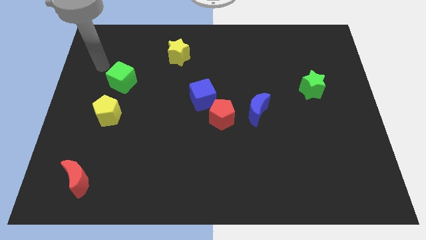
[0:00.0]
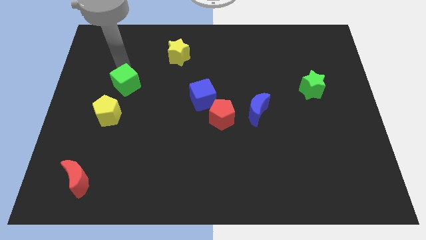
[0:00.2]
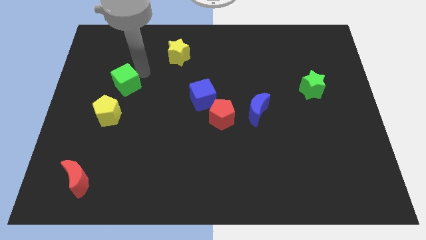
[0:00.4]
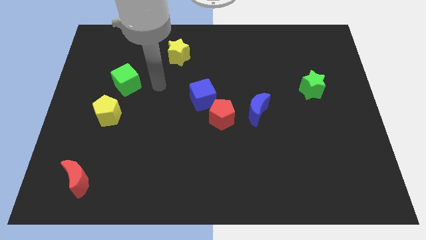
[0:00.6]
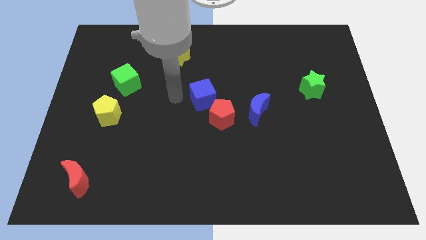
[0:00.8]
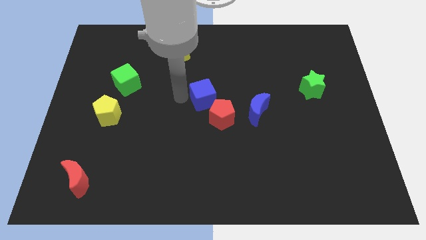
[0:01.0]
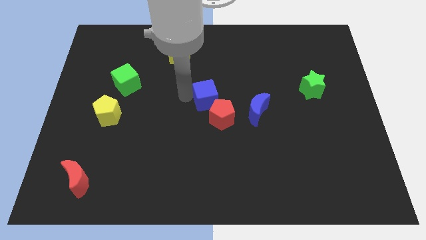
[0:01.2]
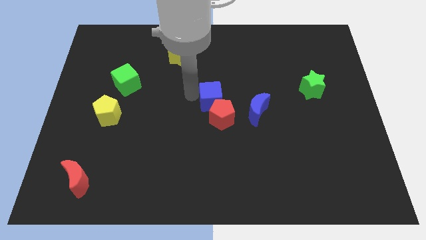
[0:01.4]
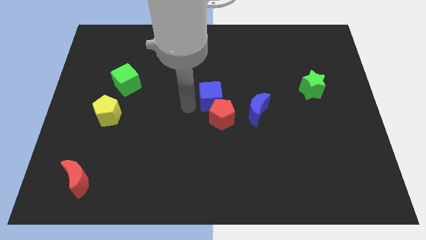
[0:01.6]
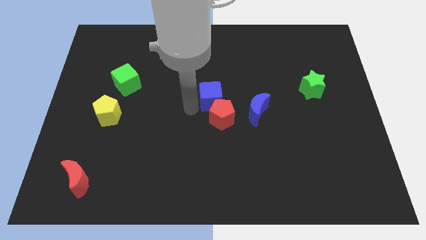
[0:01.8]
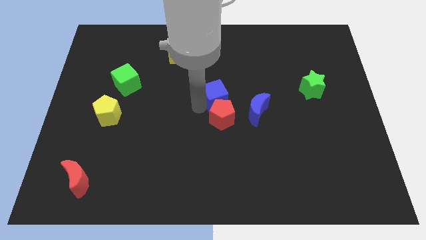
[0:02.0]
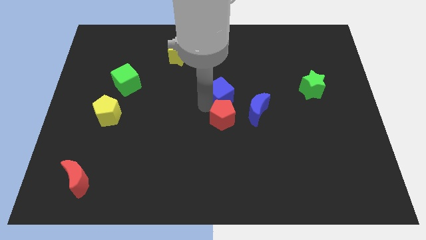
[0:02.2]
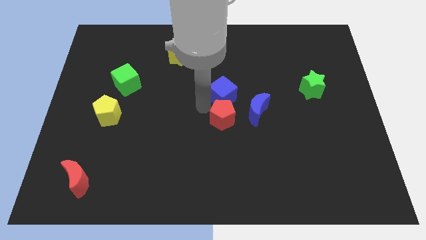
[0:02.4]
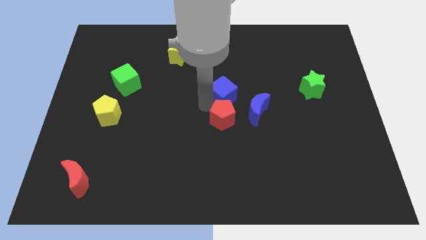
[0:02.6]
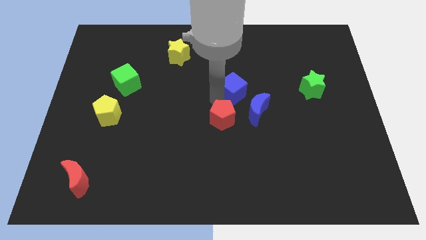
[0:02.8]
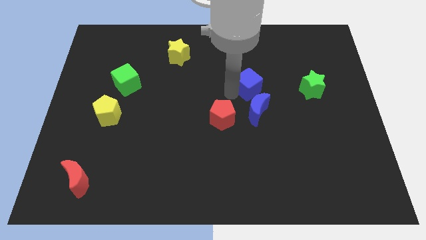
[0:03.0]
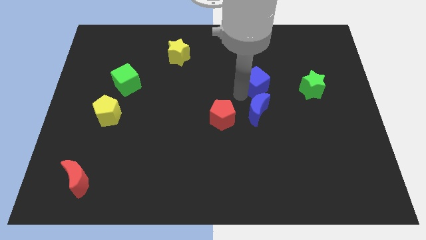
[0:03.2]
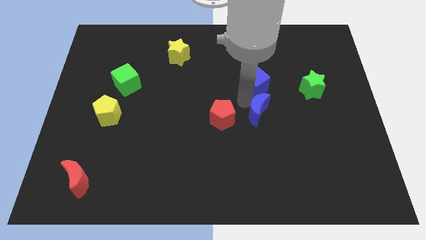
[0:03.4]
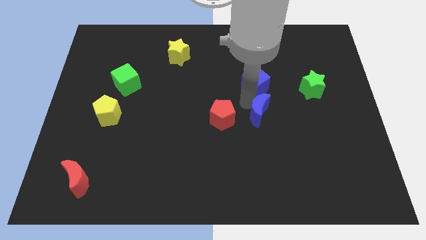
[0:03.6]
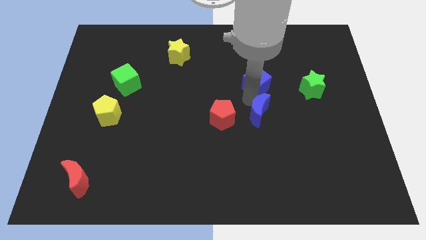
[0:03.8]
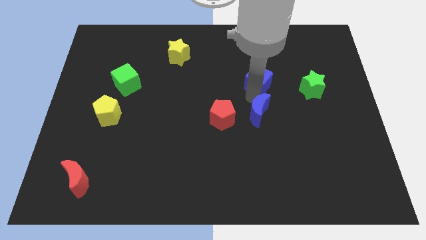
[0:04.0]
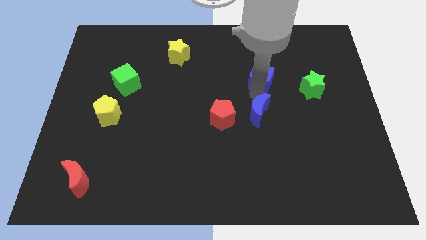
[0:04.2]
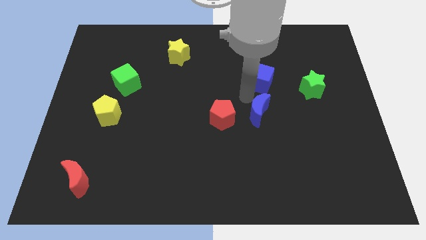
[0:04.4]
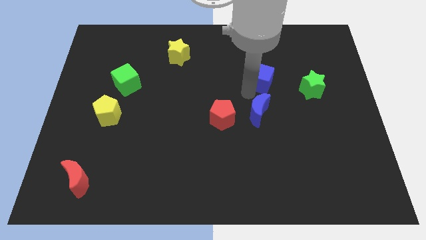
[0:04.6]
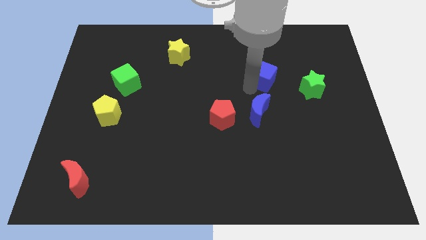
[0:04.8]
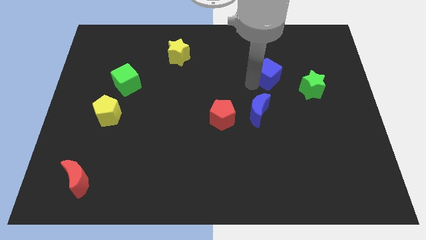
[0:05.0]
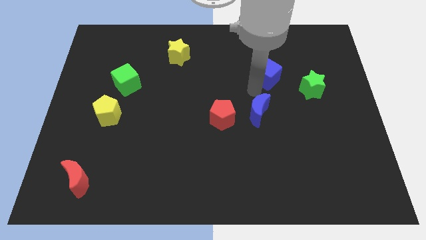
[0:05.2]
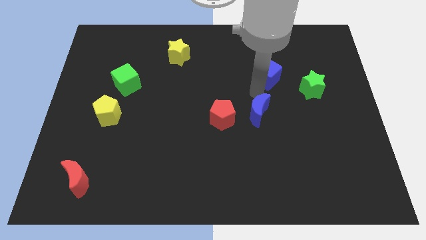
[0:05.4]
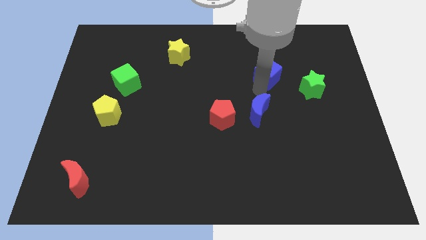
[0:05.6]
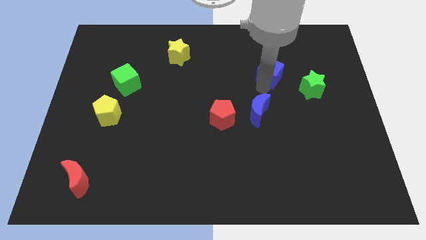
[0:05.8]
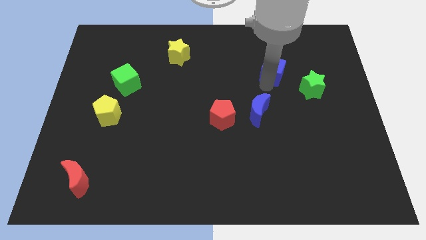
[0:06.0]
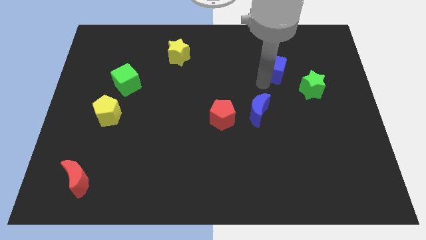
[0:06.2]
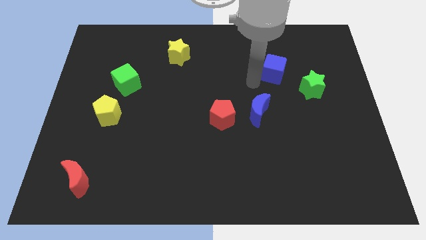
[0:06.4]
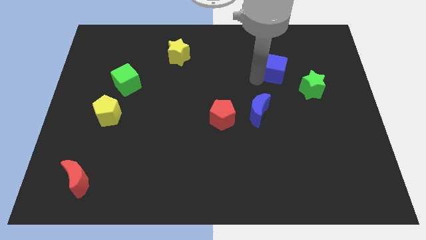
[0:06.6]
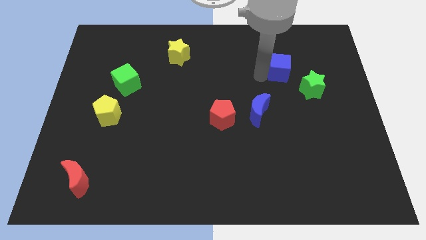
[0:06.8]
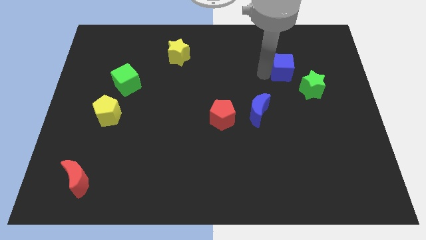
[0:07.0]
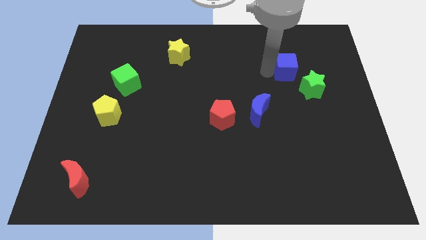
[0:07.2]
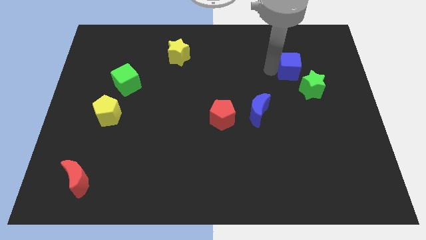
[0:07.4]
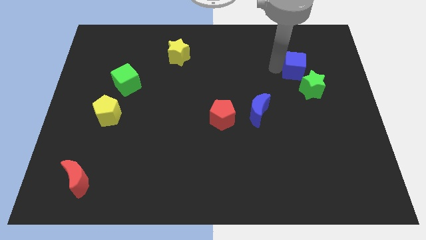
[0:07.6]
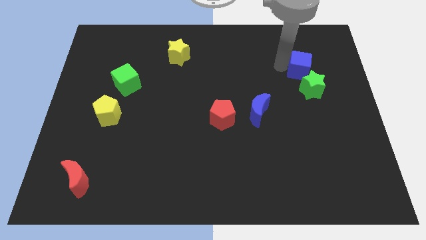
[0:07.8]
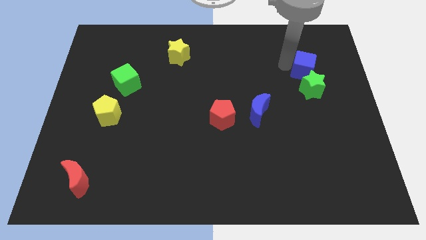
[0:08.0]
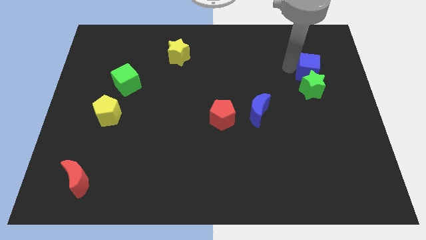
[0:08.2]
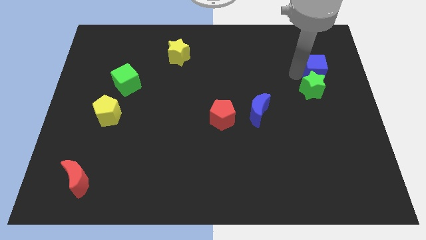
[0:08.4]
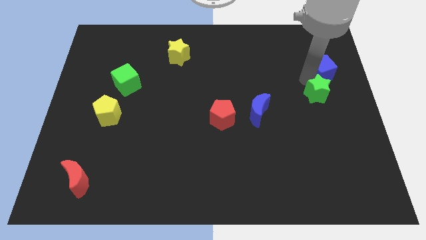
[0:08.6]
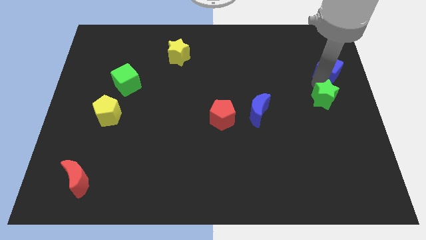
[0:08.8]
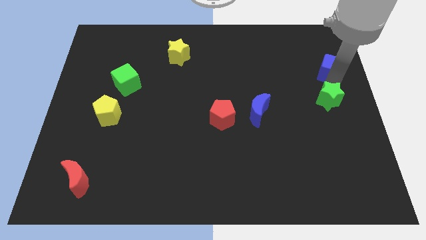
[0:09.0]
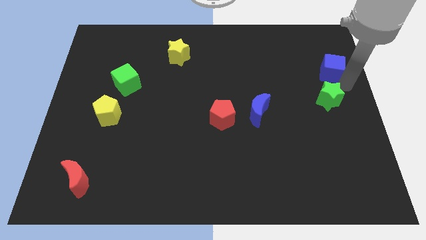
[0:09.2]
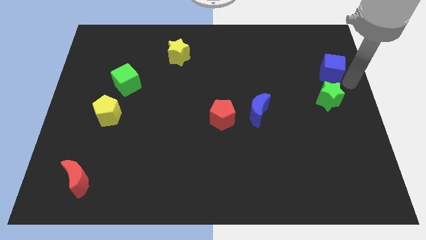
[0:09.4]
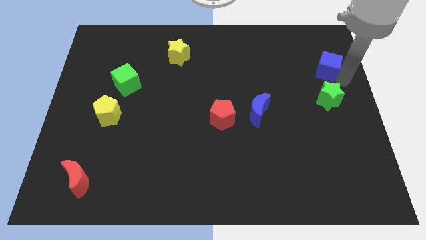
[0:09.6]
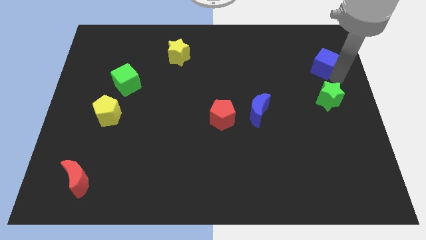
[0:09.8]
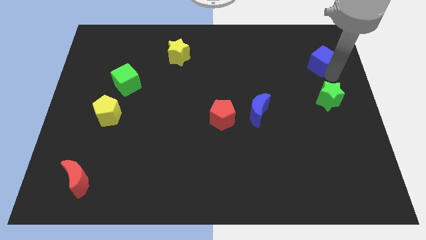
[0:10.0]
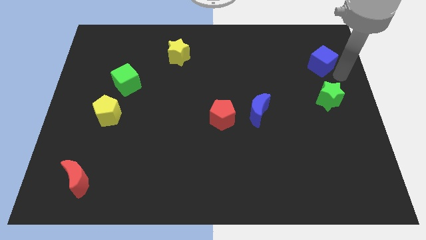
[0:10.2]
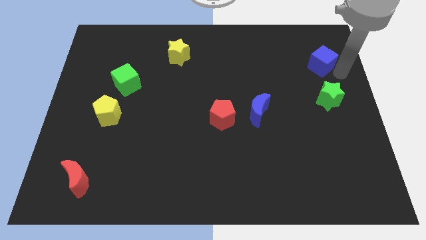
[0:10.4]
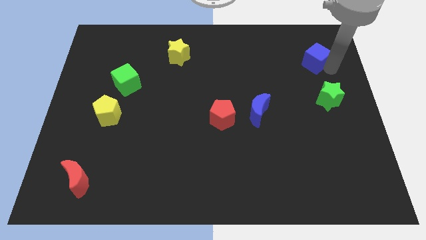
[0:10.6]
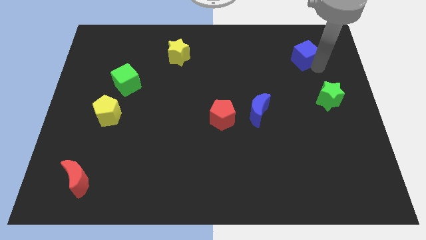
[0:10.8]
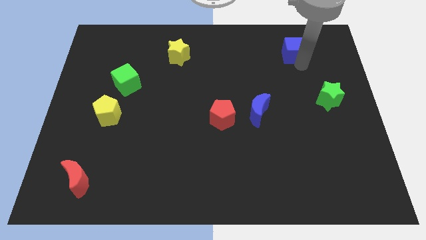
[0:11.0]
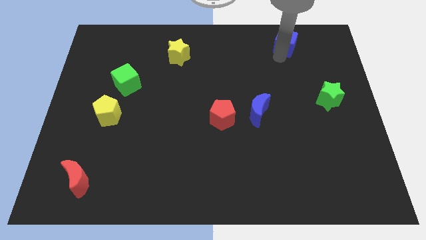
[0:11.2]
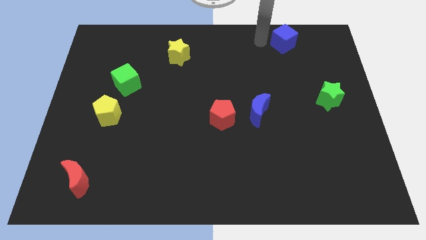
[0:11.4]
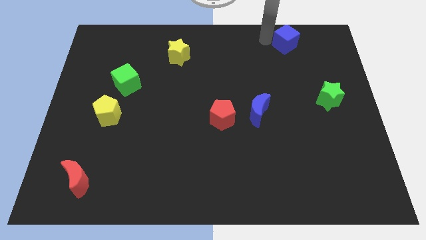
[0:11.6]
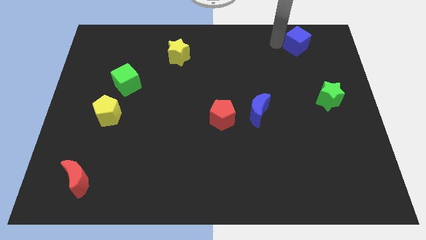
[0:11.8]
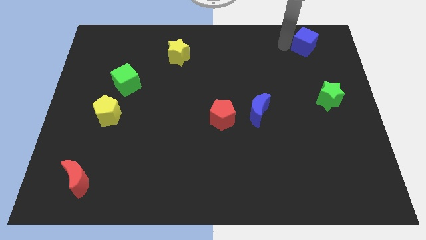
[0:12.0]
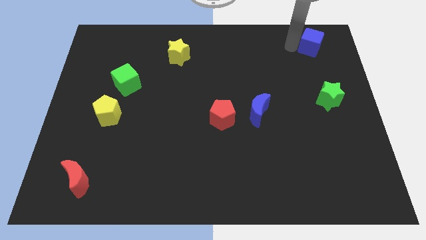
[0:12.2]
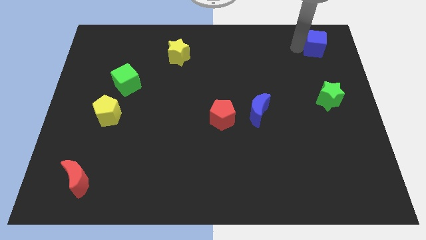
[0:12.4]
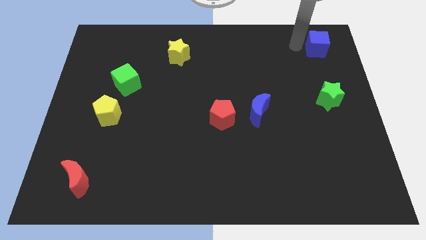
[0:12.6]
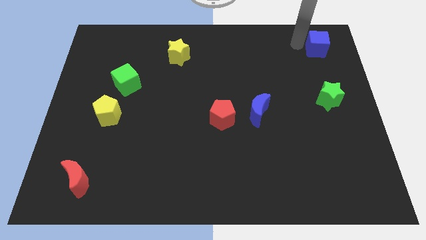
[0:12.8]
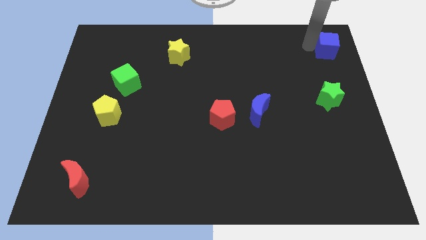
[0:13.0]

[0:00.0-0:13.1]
push the blue cube to the upper right corner

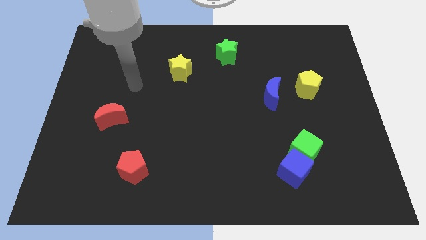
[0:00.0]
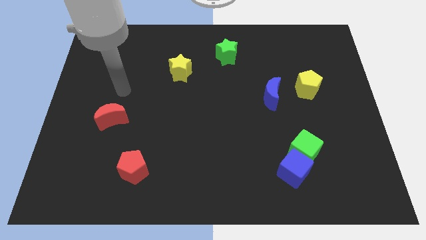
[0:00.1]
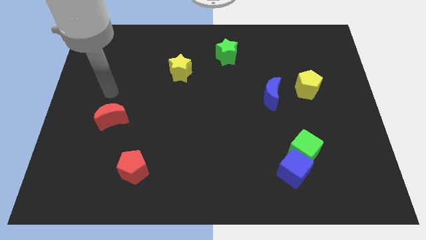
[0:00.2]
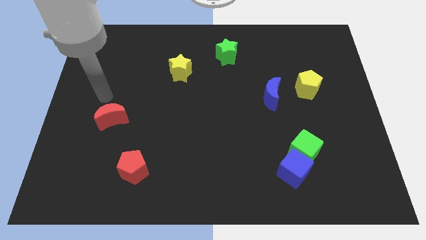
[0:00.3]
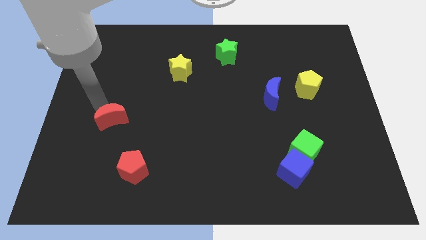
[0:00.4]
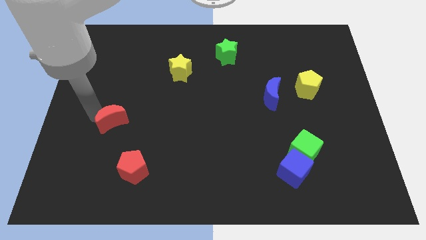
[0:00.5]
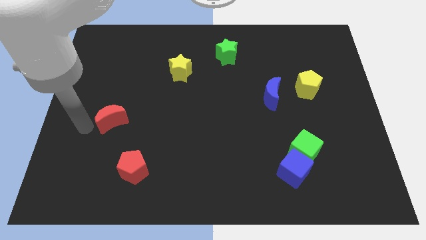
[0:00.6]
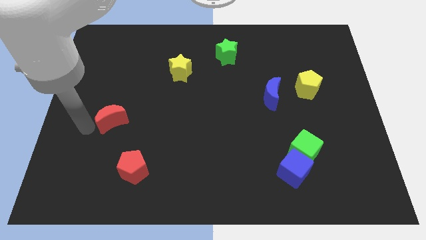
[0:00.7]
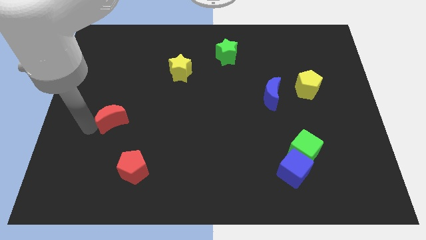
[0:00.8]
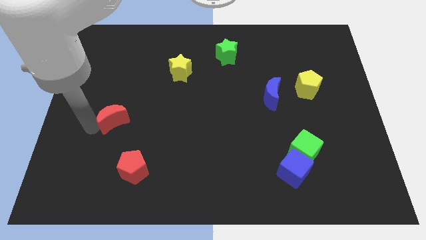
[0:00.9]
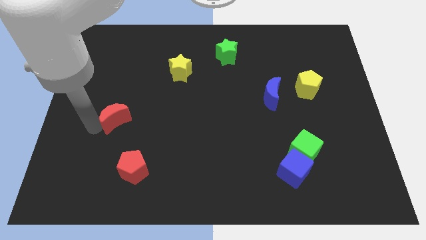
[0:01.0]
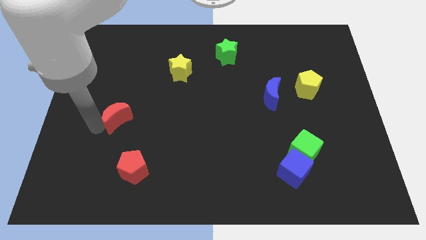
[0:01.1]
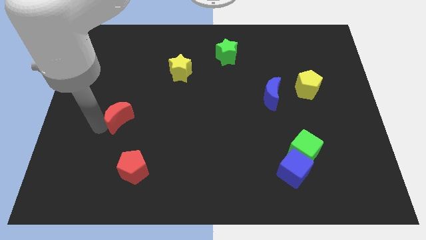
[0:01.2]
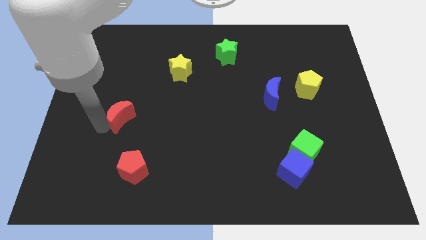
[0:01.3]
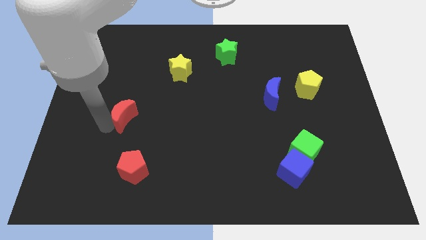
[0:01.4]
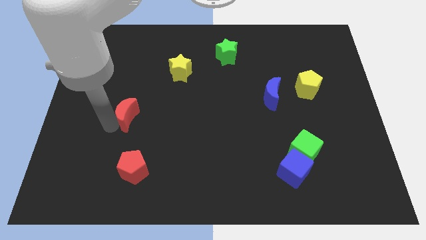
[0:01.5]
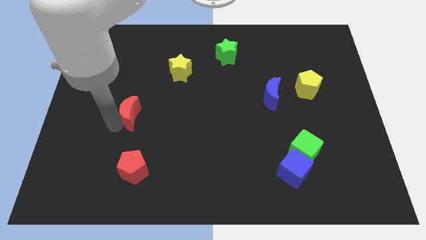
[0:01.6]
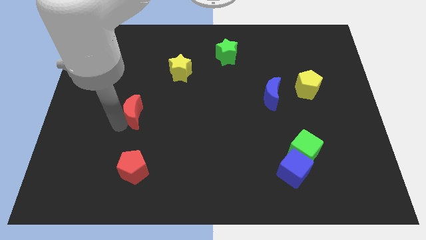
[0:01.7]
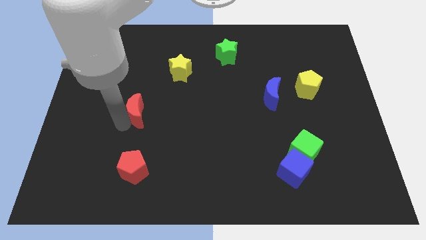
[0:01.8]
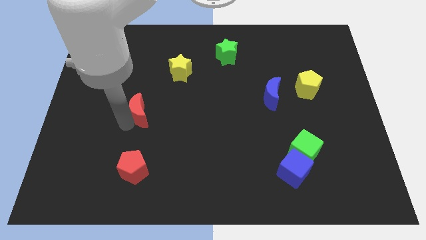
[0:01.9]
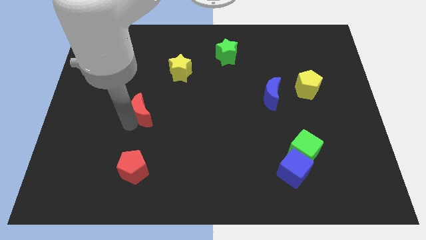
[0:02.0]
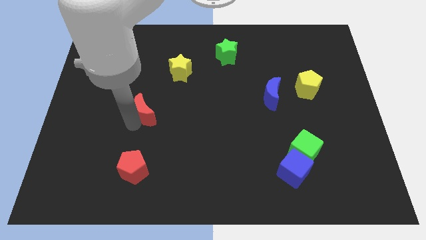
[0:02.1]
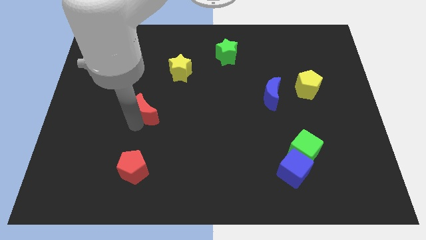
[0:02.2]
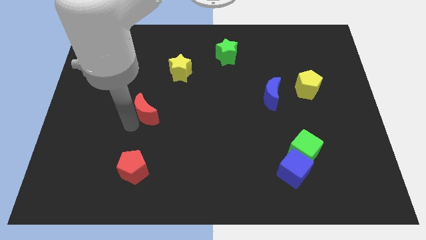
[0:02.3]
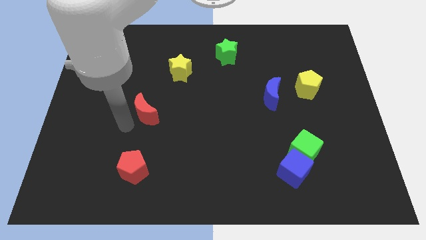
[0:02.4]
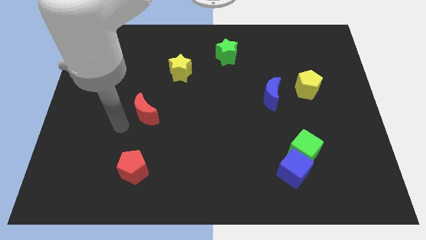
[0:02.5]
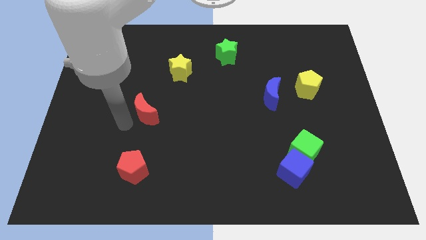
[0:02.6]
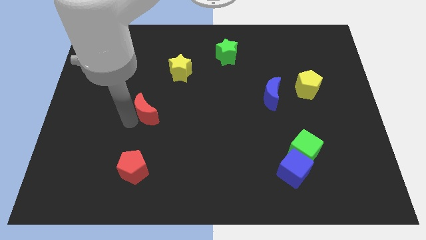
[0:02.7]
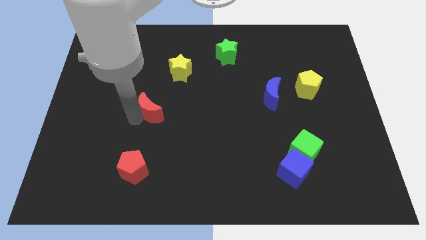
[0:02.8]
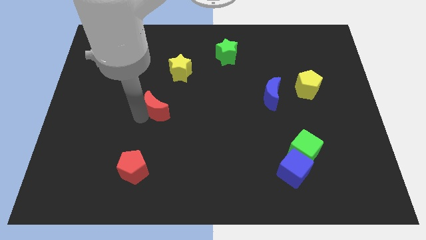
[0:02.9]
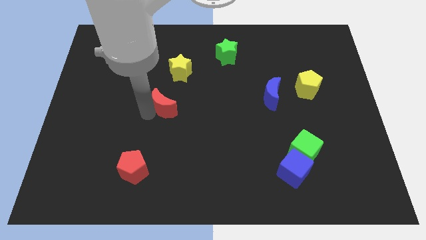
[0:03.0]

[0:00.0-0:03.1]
slide the red moon to the middle
